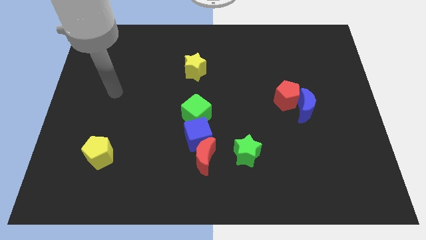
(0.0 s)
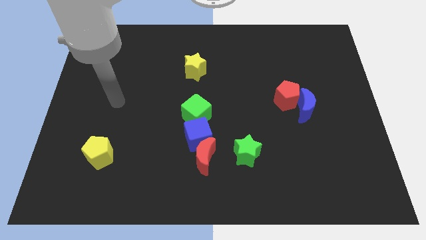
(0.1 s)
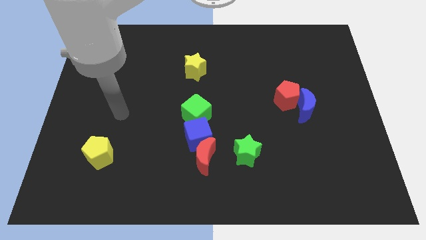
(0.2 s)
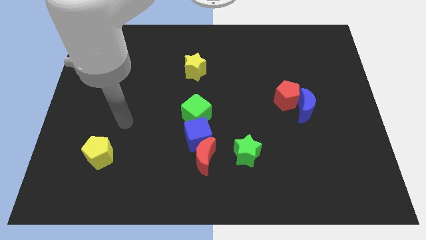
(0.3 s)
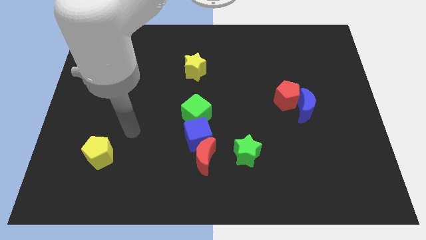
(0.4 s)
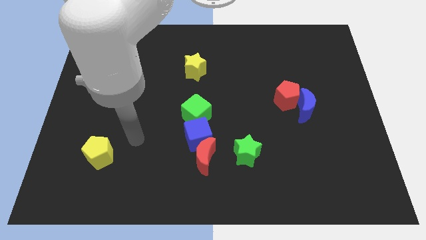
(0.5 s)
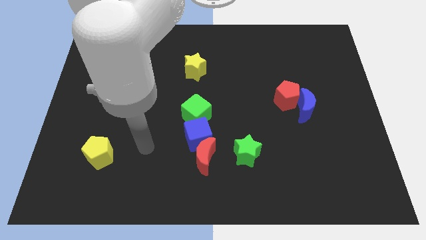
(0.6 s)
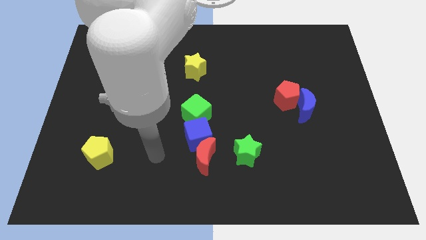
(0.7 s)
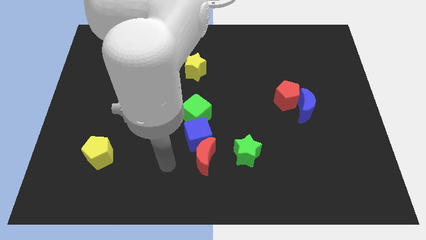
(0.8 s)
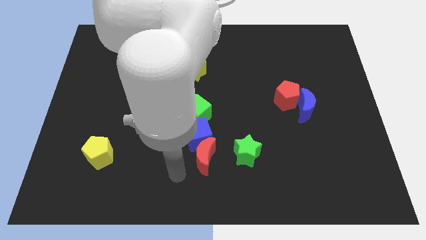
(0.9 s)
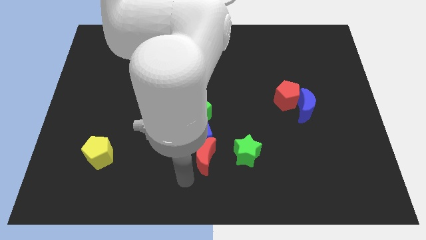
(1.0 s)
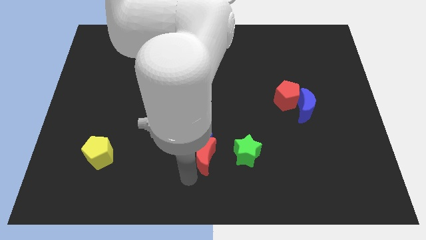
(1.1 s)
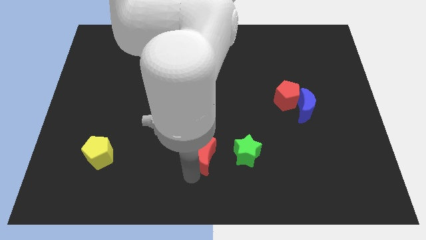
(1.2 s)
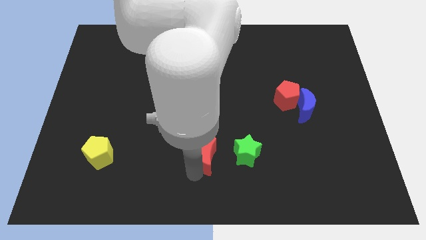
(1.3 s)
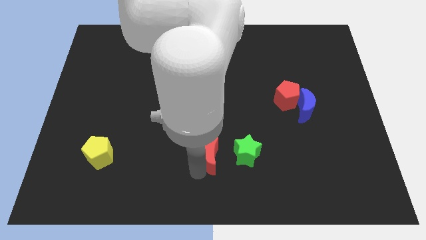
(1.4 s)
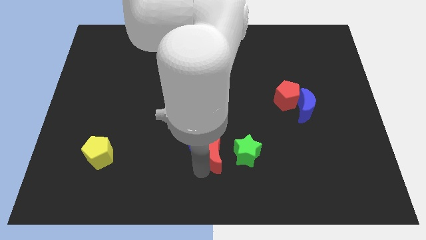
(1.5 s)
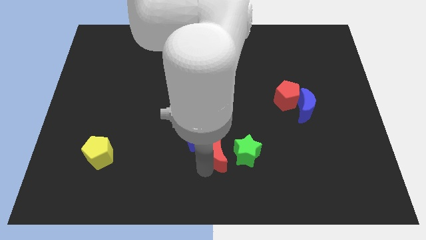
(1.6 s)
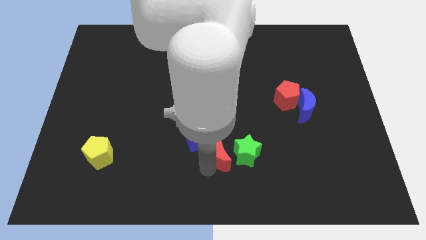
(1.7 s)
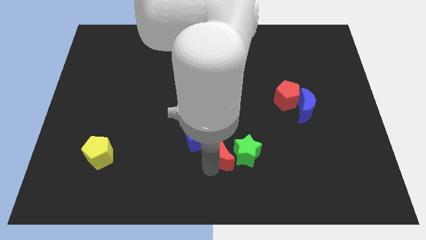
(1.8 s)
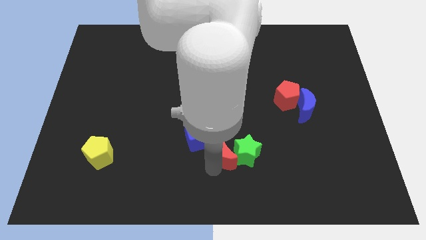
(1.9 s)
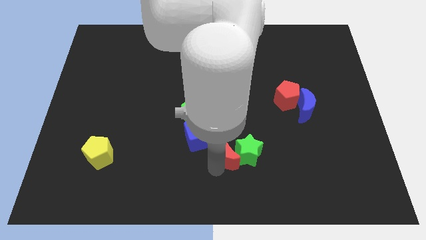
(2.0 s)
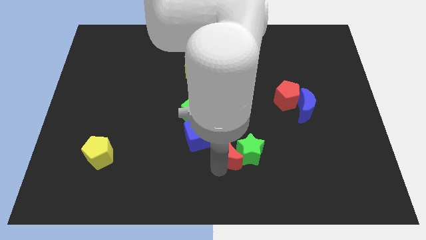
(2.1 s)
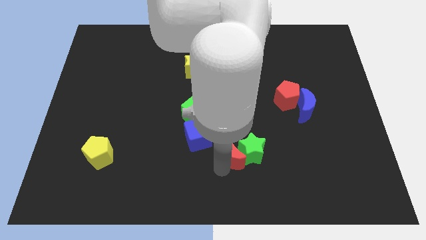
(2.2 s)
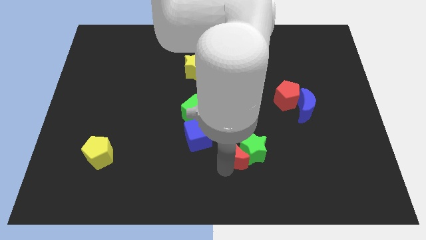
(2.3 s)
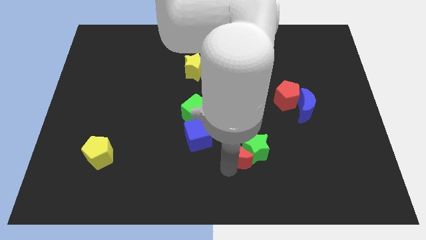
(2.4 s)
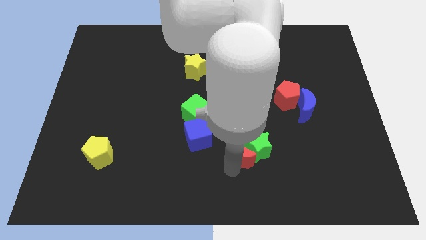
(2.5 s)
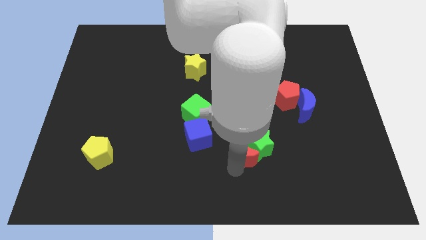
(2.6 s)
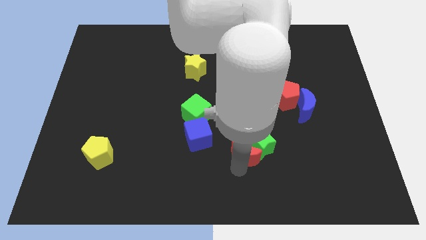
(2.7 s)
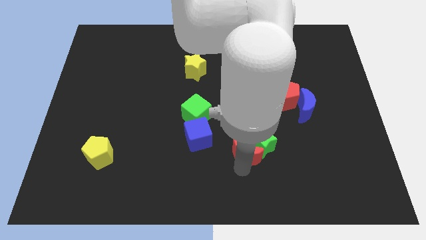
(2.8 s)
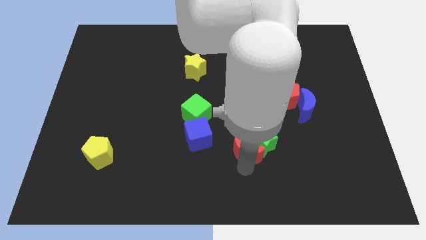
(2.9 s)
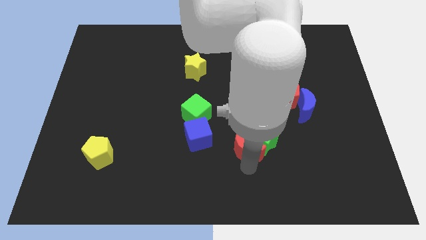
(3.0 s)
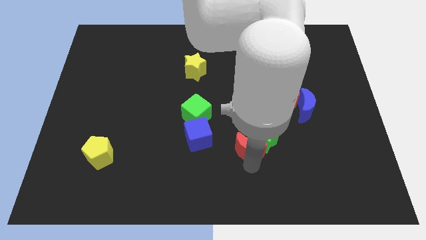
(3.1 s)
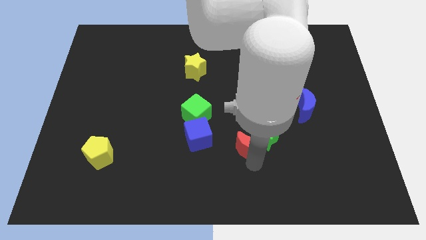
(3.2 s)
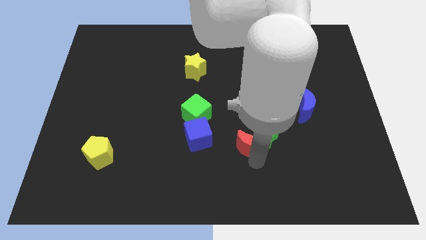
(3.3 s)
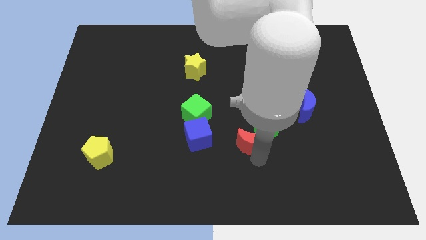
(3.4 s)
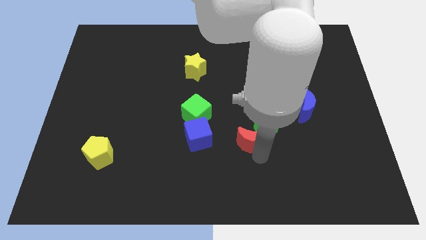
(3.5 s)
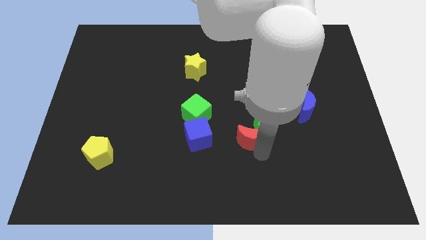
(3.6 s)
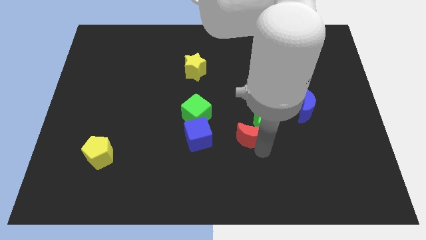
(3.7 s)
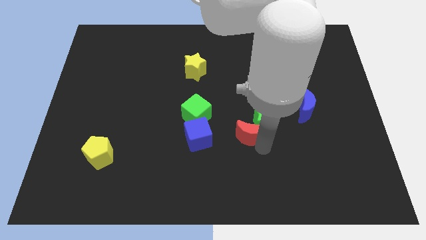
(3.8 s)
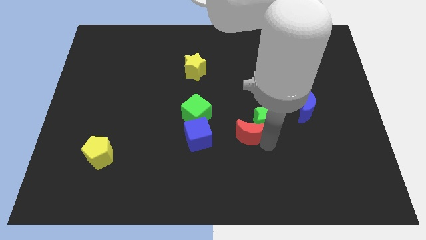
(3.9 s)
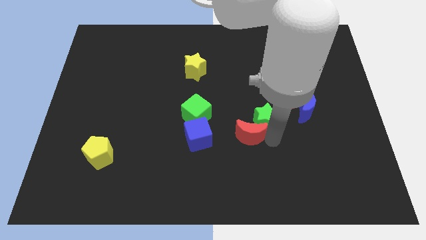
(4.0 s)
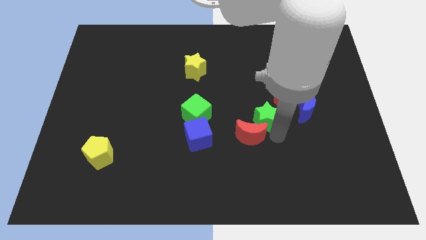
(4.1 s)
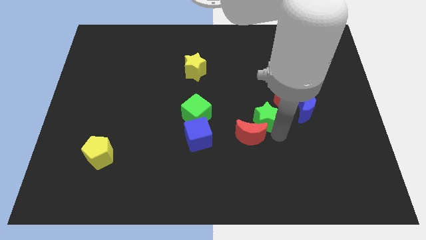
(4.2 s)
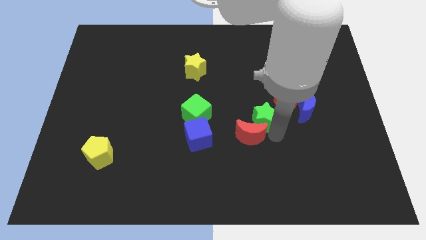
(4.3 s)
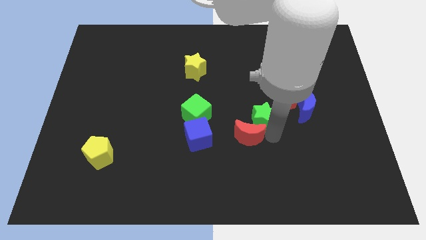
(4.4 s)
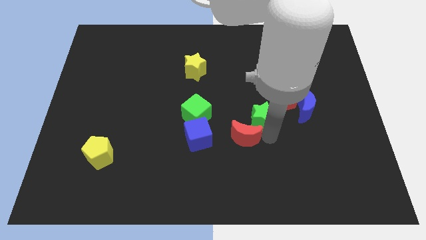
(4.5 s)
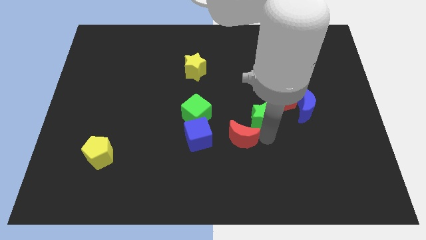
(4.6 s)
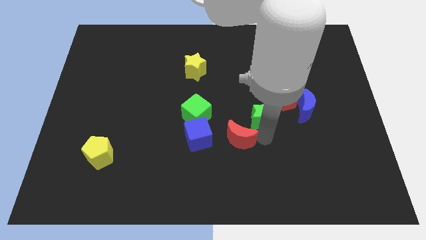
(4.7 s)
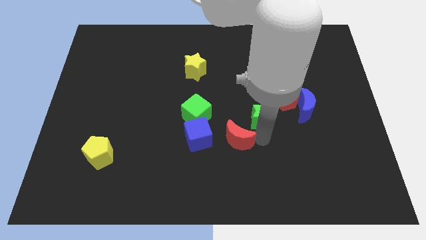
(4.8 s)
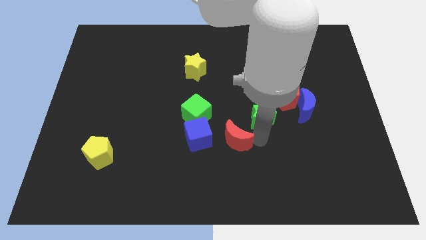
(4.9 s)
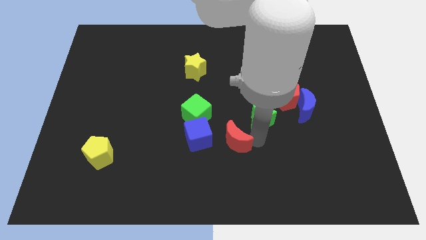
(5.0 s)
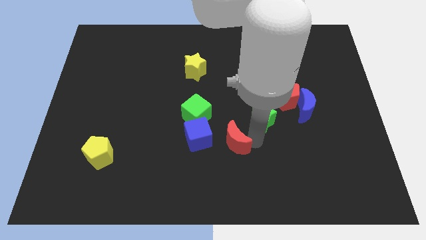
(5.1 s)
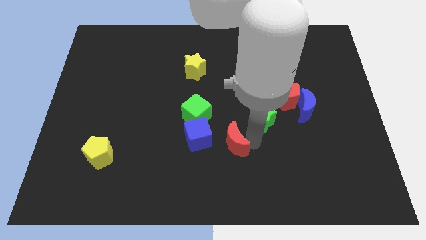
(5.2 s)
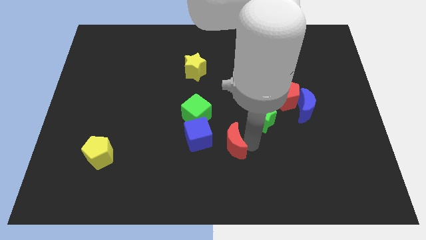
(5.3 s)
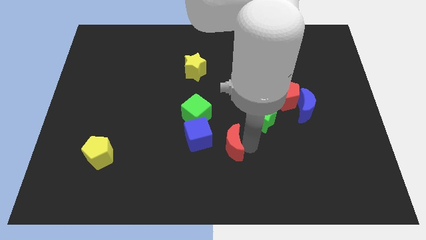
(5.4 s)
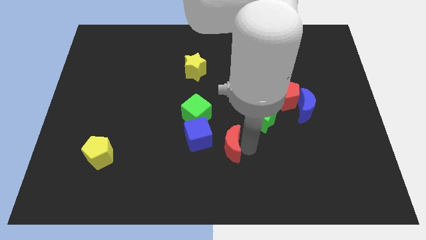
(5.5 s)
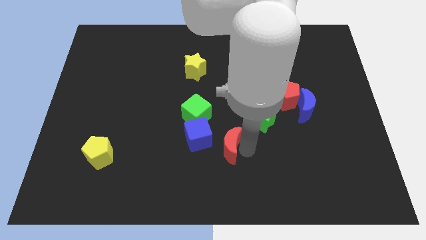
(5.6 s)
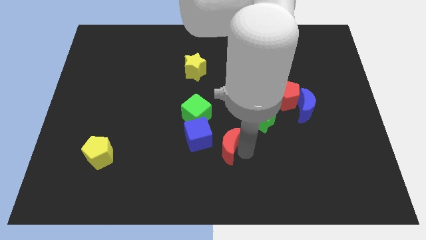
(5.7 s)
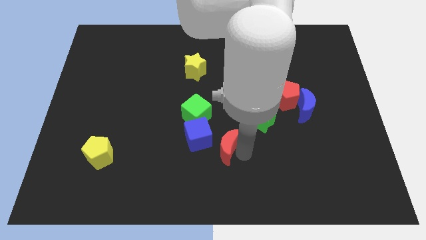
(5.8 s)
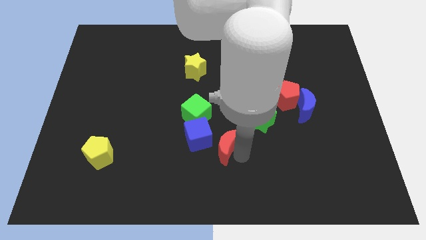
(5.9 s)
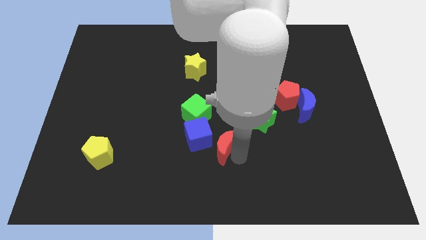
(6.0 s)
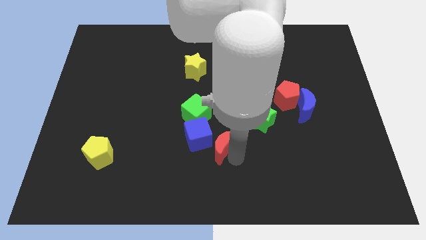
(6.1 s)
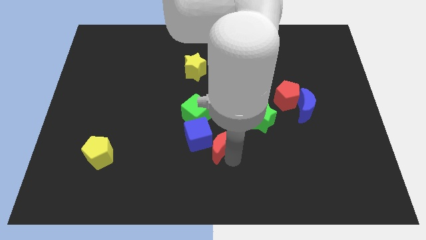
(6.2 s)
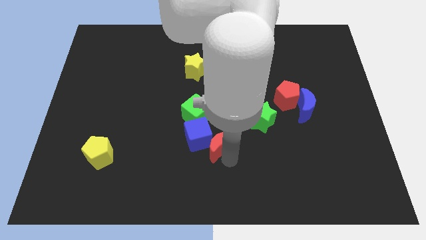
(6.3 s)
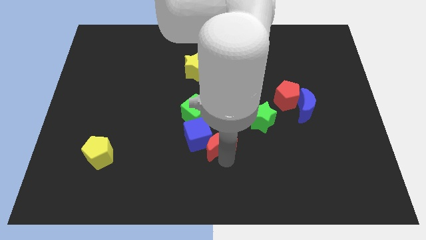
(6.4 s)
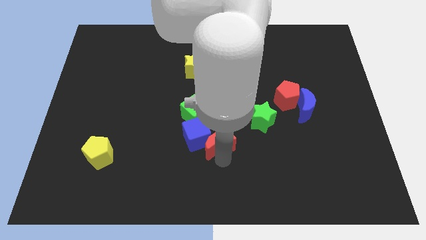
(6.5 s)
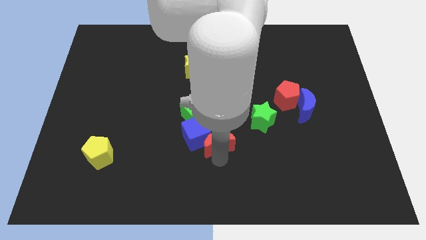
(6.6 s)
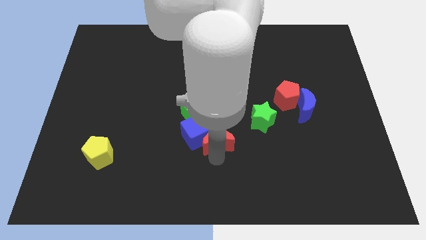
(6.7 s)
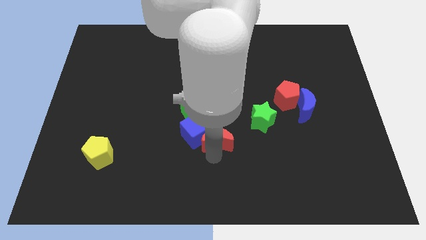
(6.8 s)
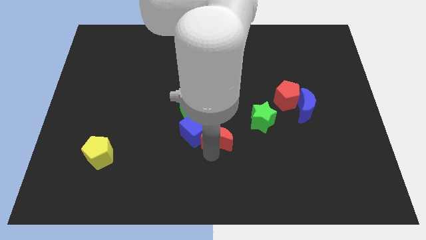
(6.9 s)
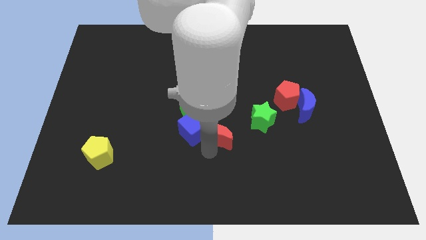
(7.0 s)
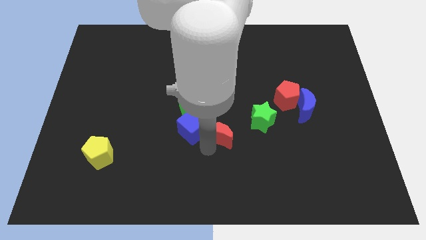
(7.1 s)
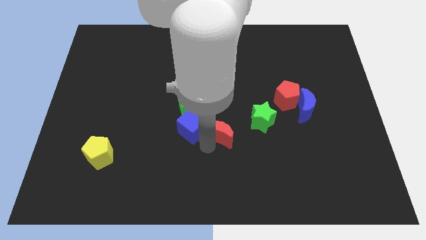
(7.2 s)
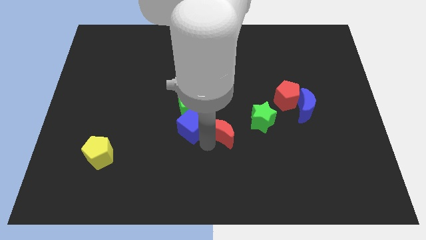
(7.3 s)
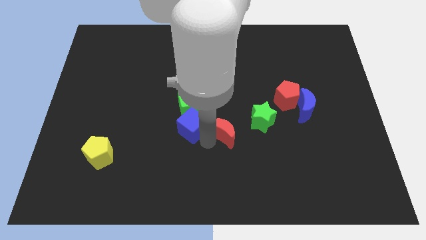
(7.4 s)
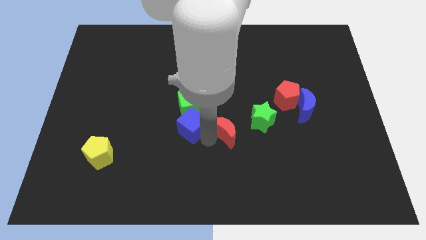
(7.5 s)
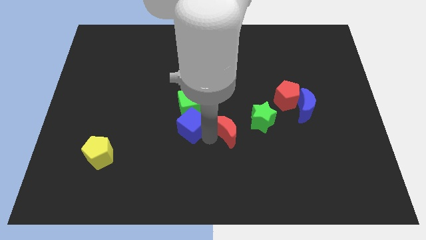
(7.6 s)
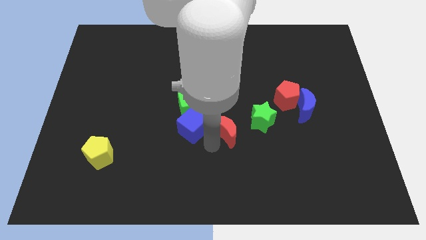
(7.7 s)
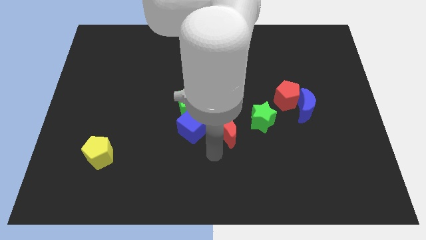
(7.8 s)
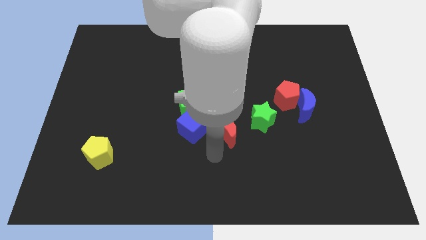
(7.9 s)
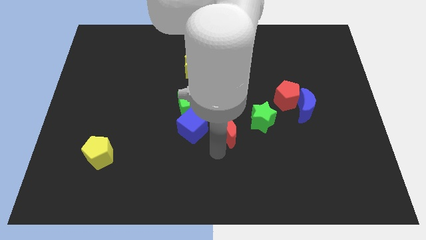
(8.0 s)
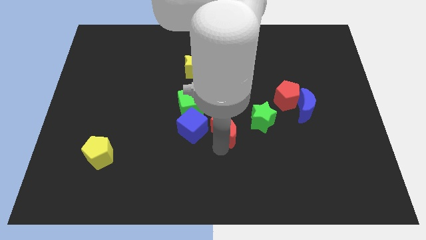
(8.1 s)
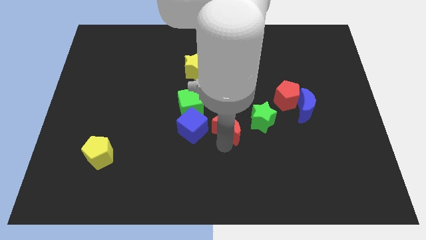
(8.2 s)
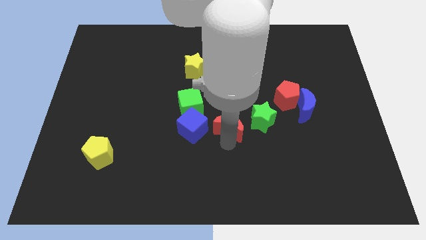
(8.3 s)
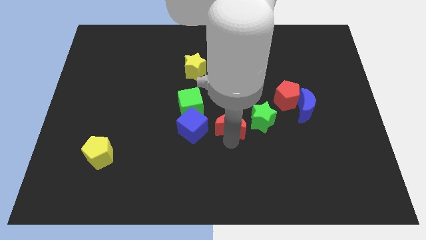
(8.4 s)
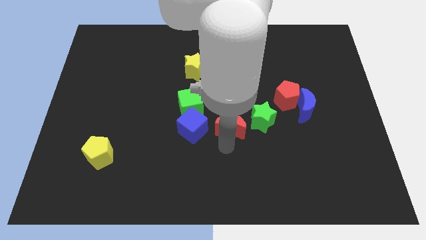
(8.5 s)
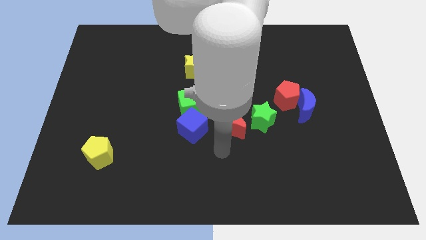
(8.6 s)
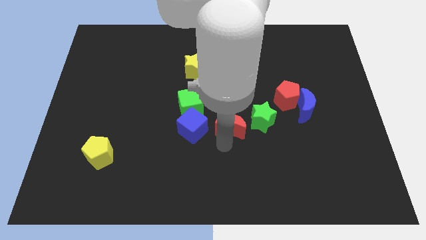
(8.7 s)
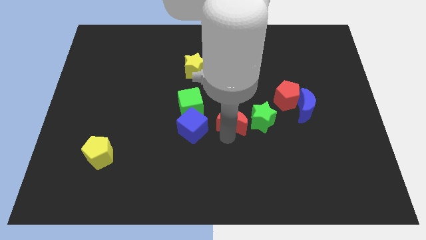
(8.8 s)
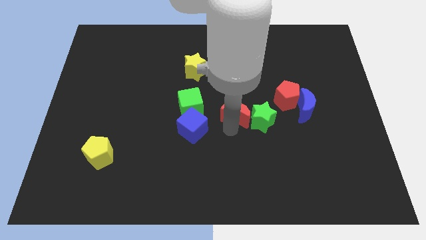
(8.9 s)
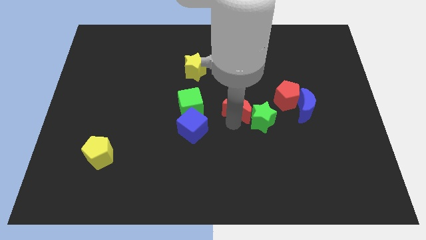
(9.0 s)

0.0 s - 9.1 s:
move the red moon to the left of the red pentagon
